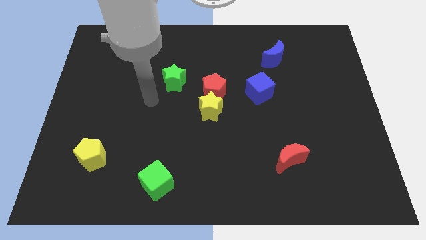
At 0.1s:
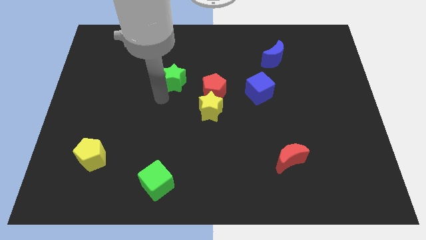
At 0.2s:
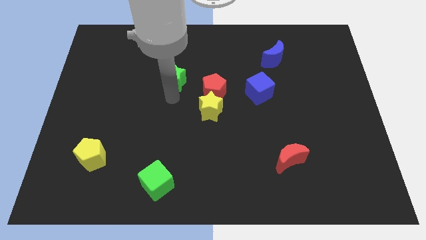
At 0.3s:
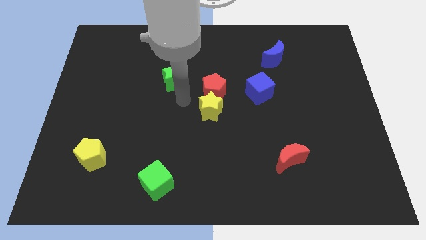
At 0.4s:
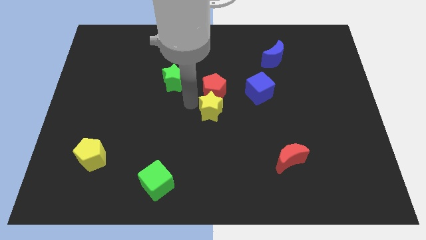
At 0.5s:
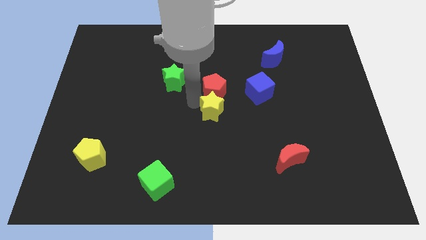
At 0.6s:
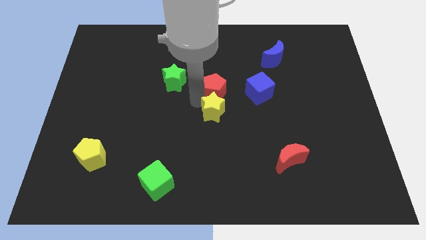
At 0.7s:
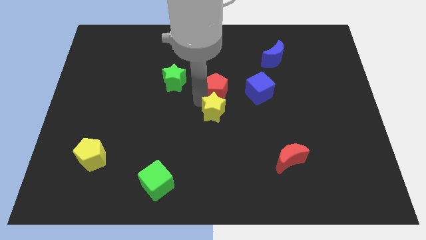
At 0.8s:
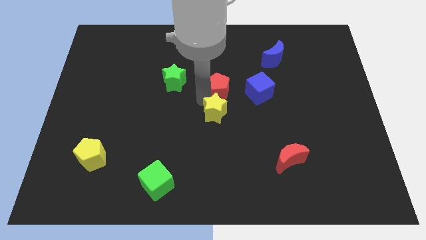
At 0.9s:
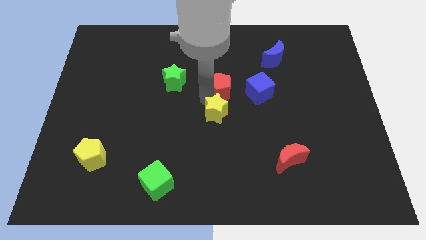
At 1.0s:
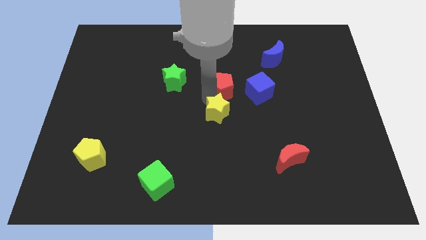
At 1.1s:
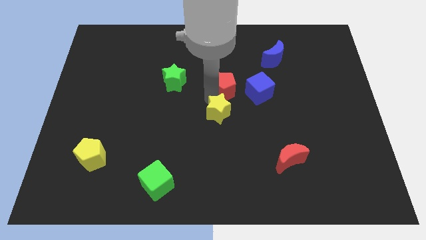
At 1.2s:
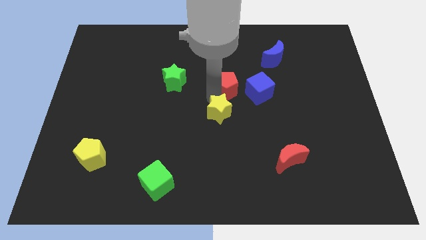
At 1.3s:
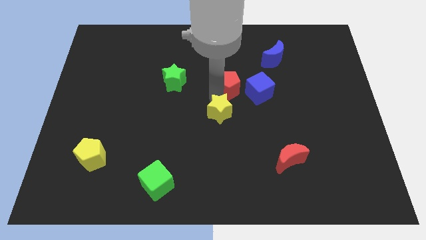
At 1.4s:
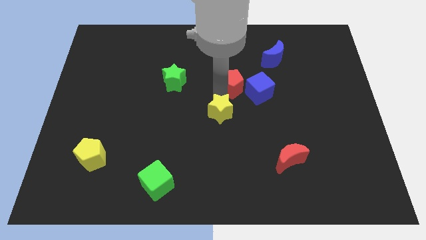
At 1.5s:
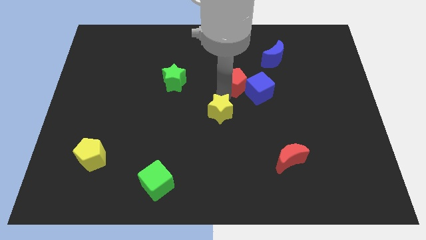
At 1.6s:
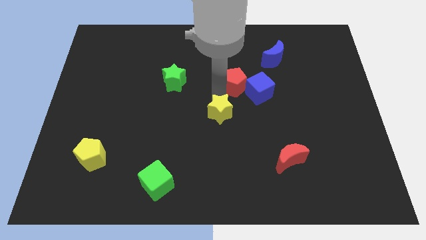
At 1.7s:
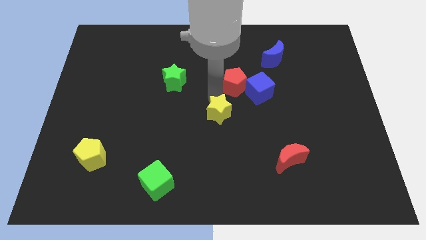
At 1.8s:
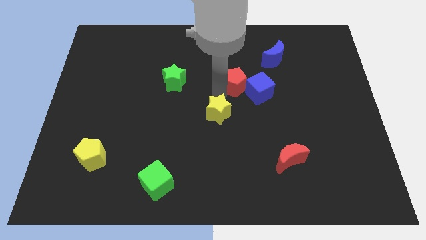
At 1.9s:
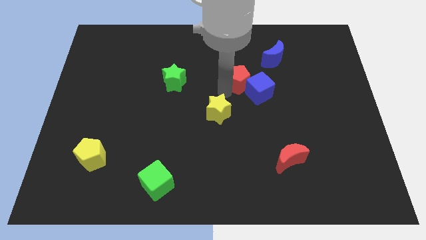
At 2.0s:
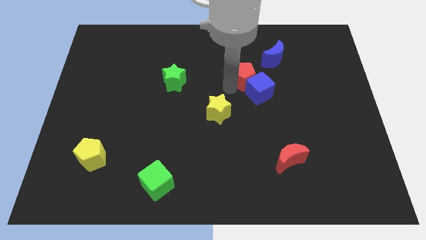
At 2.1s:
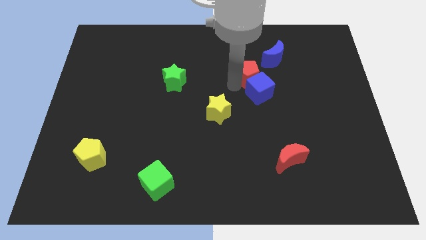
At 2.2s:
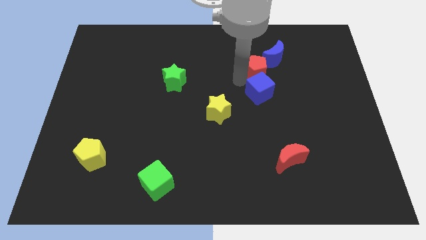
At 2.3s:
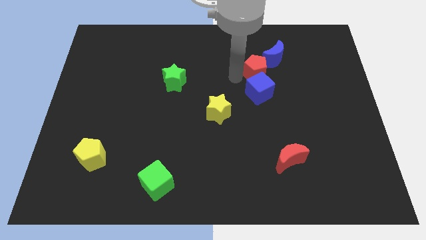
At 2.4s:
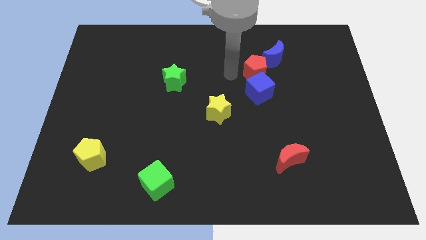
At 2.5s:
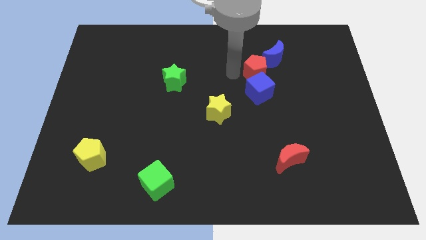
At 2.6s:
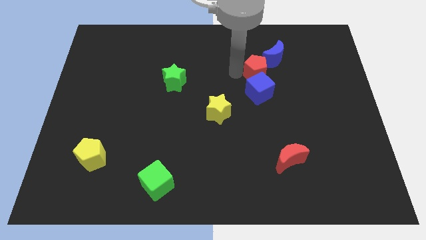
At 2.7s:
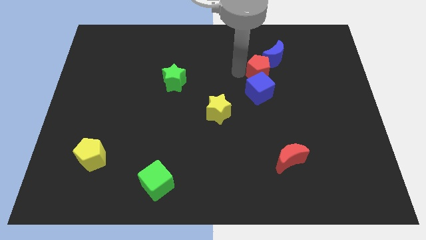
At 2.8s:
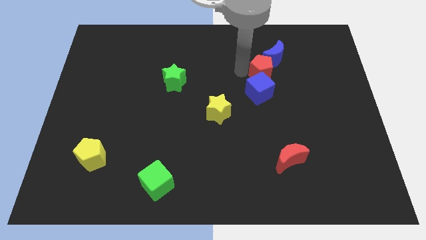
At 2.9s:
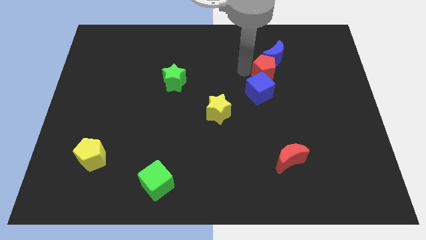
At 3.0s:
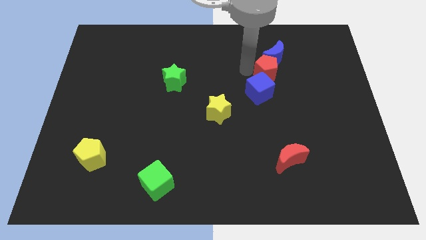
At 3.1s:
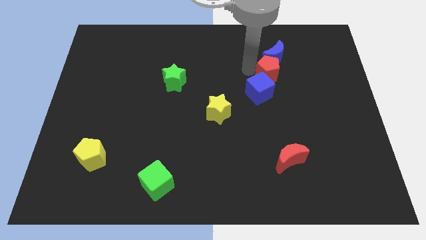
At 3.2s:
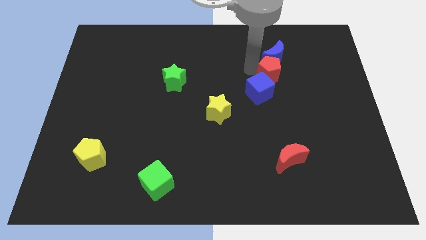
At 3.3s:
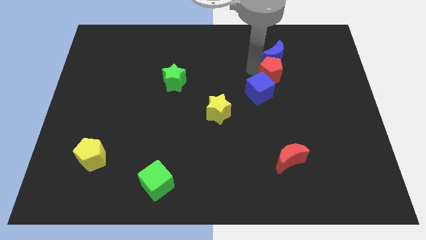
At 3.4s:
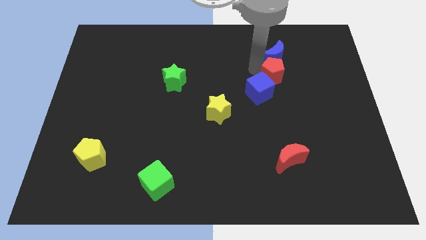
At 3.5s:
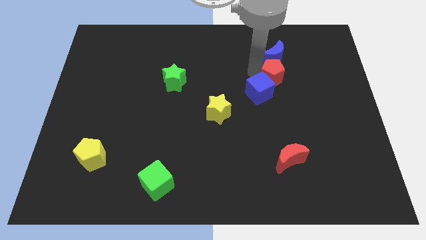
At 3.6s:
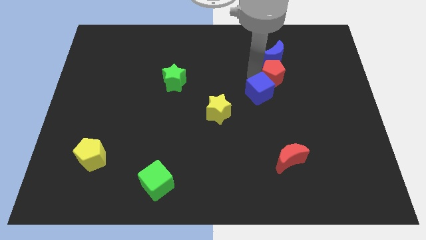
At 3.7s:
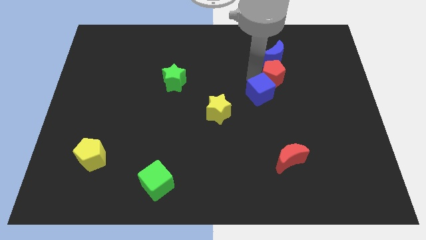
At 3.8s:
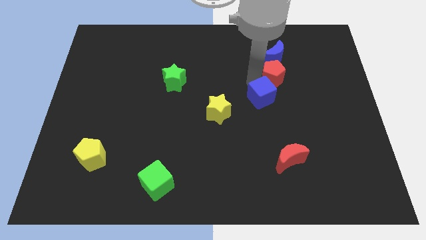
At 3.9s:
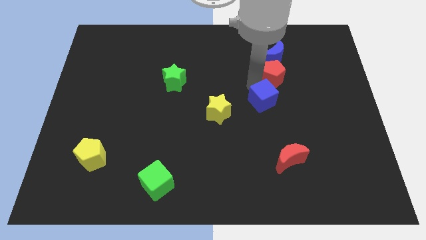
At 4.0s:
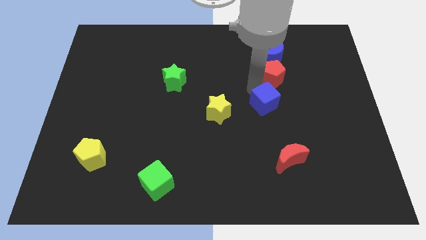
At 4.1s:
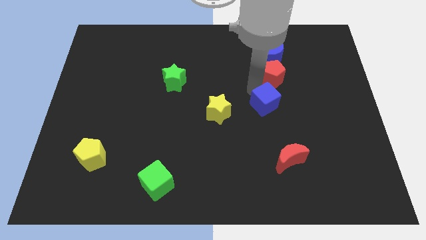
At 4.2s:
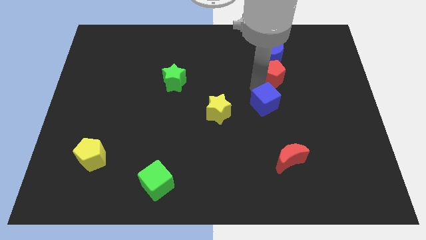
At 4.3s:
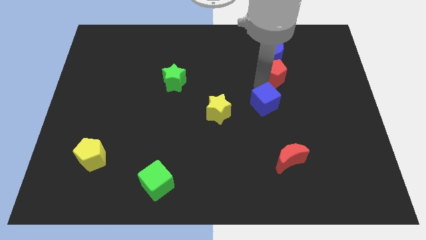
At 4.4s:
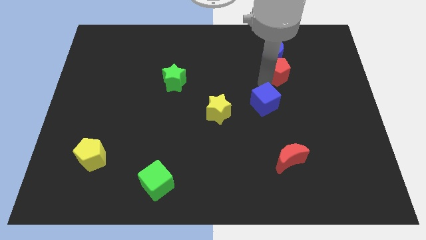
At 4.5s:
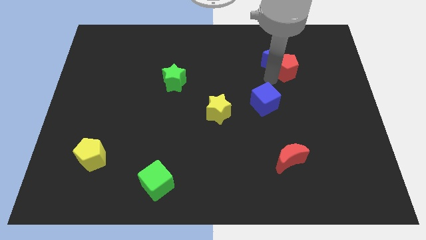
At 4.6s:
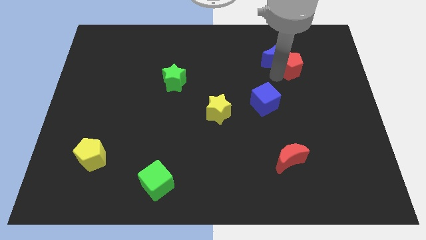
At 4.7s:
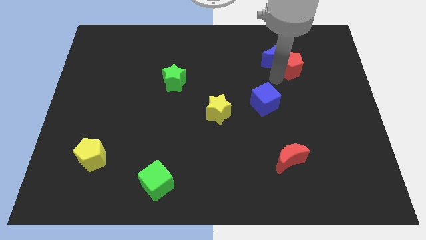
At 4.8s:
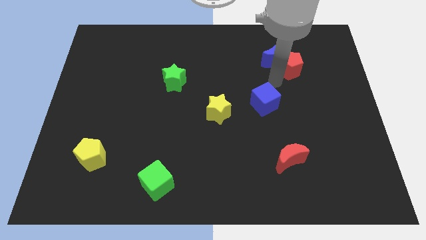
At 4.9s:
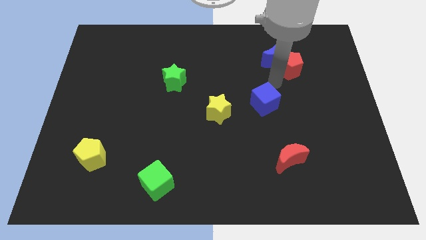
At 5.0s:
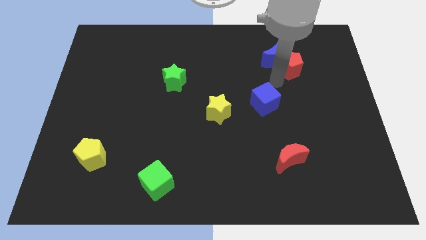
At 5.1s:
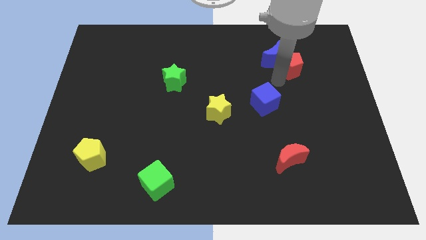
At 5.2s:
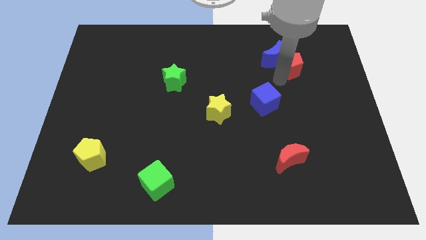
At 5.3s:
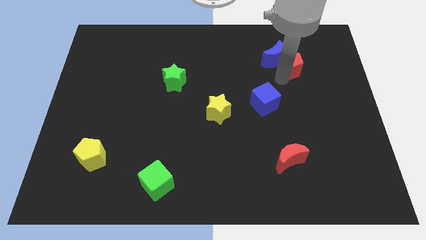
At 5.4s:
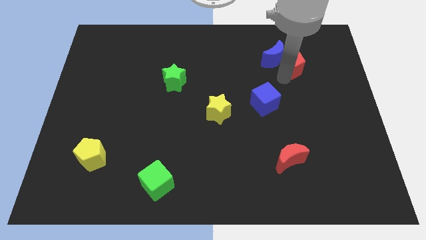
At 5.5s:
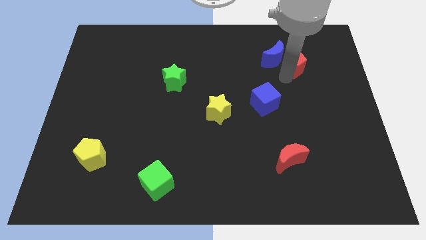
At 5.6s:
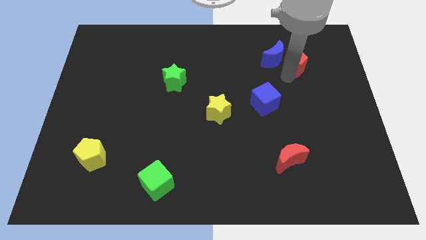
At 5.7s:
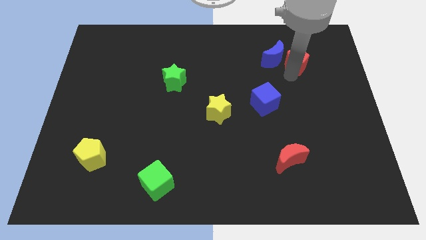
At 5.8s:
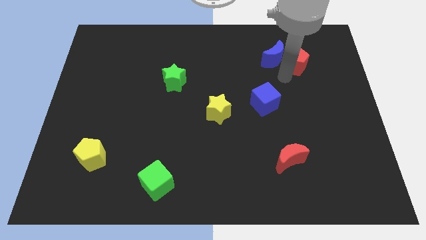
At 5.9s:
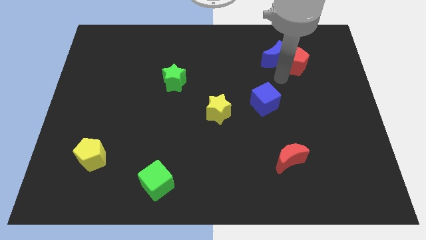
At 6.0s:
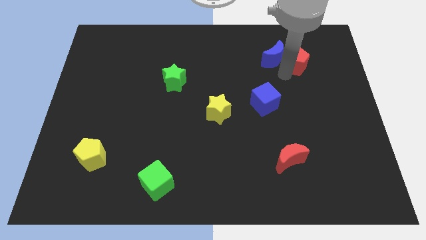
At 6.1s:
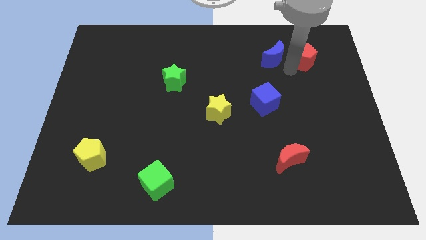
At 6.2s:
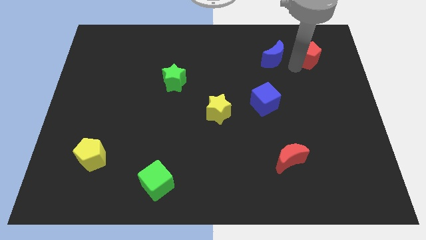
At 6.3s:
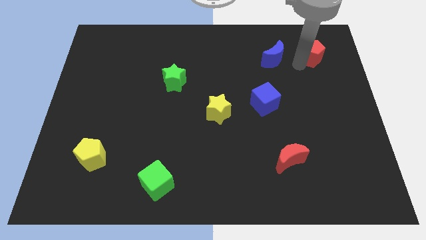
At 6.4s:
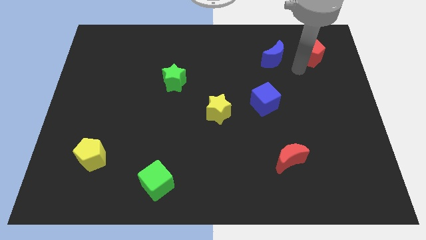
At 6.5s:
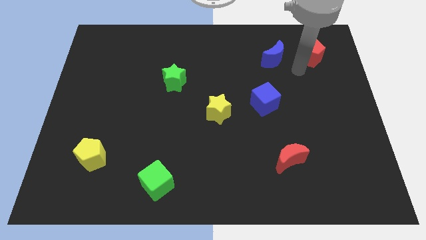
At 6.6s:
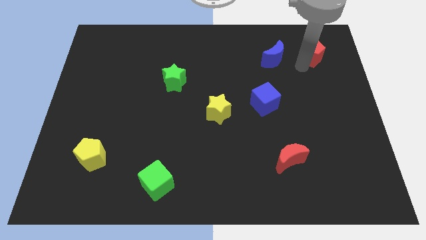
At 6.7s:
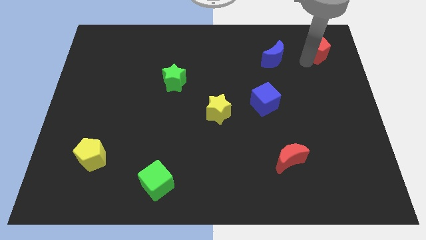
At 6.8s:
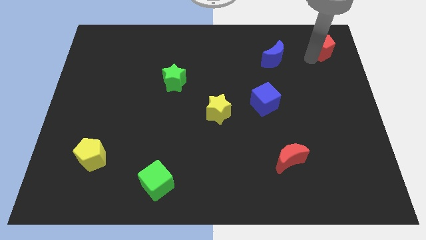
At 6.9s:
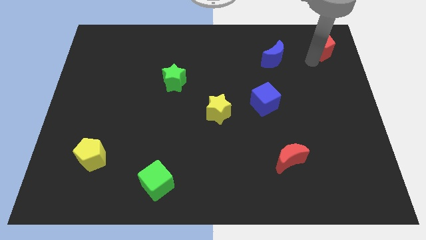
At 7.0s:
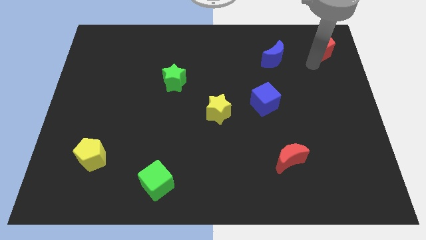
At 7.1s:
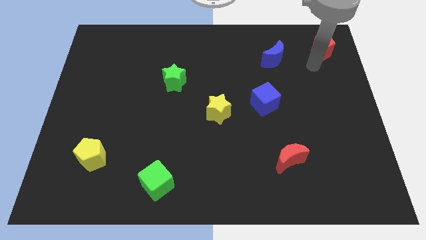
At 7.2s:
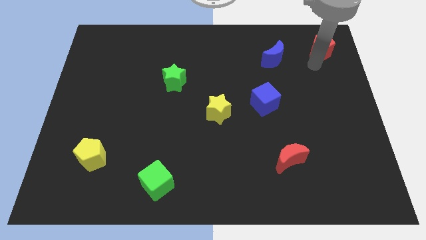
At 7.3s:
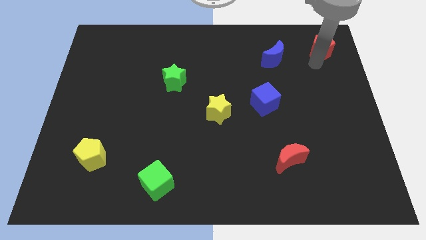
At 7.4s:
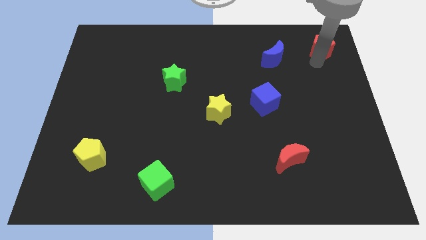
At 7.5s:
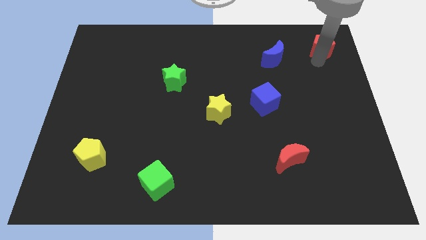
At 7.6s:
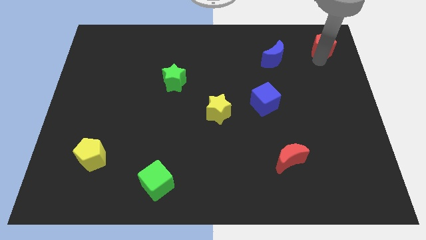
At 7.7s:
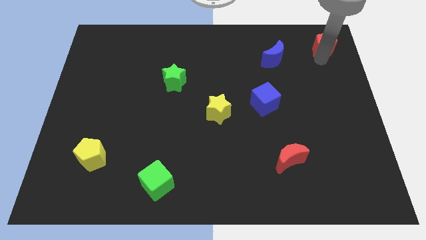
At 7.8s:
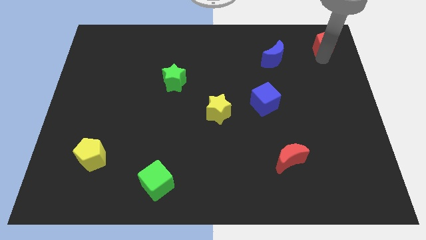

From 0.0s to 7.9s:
put the red pentagon to the top right of the board
